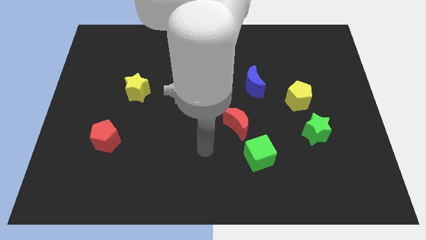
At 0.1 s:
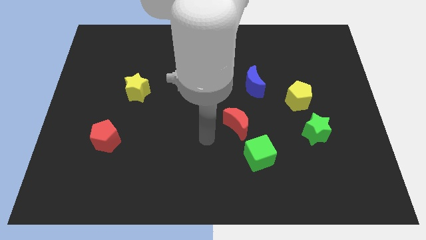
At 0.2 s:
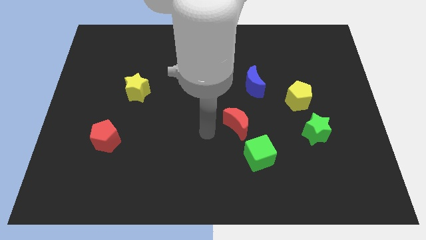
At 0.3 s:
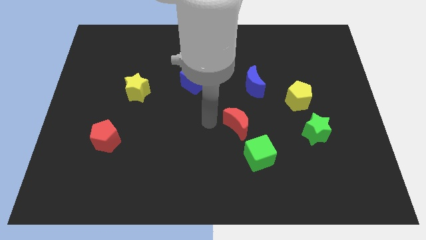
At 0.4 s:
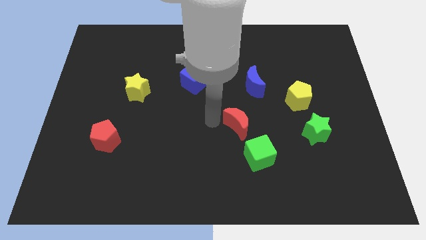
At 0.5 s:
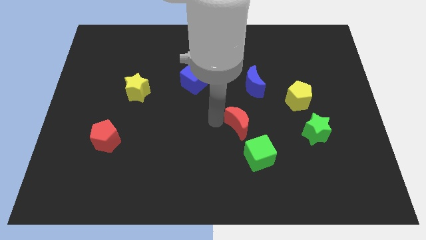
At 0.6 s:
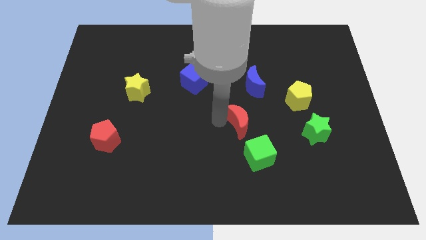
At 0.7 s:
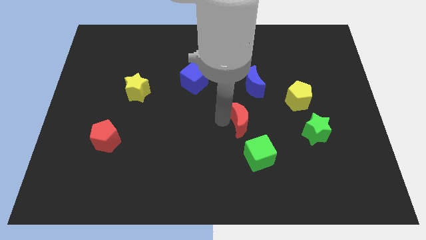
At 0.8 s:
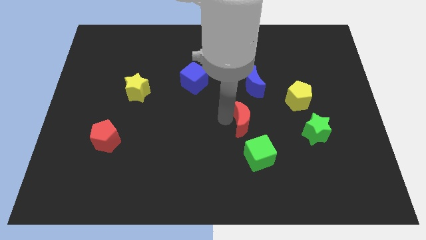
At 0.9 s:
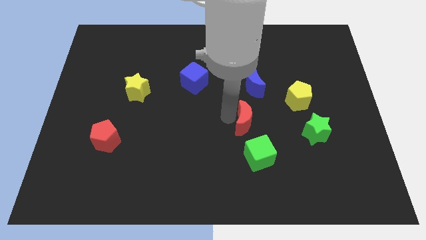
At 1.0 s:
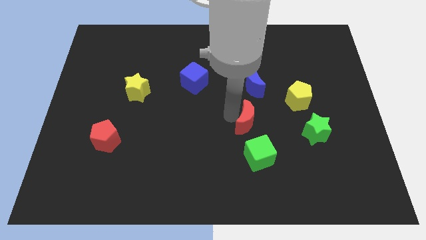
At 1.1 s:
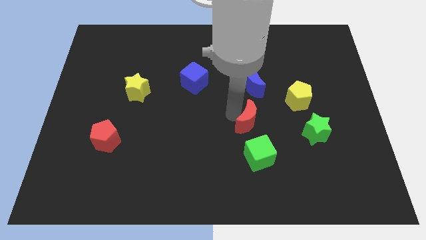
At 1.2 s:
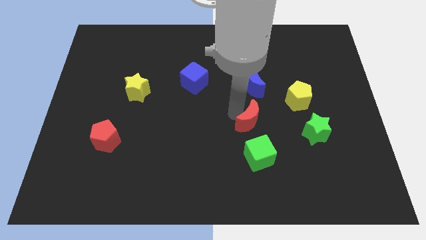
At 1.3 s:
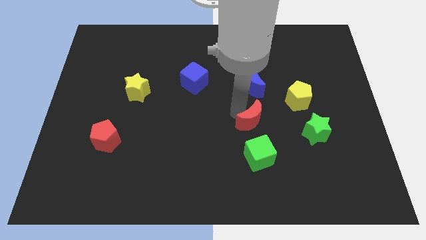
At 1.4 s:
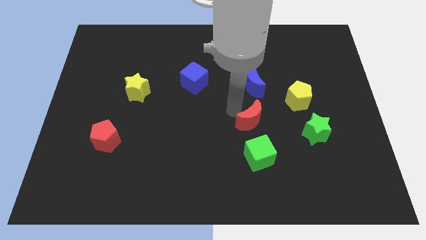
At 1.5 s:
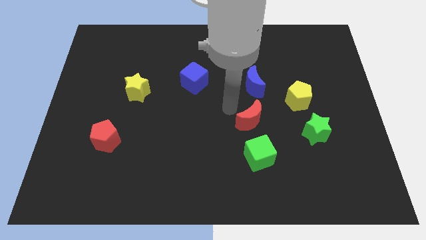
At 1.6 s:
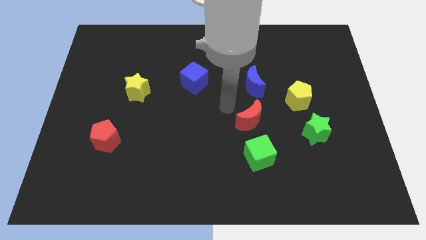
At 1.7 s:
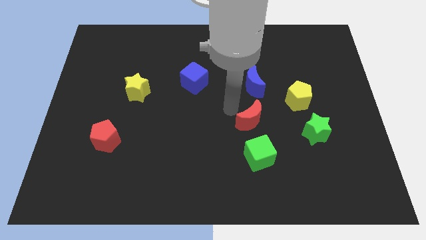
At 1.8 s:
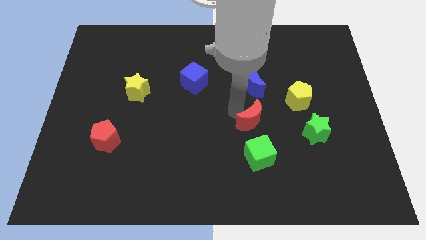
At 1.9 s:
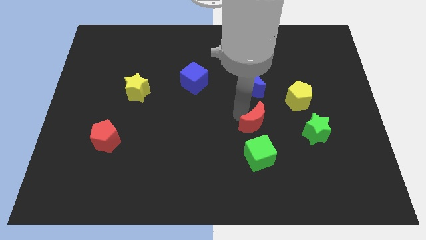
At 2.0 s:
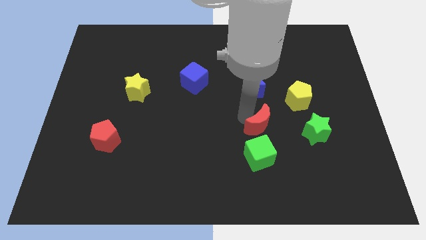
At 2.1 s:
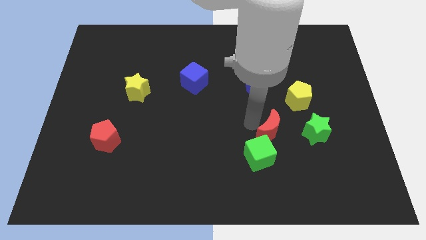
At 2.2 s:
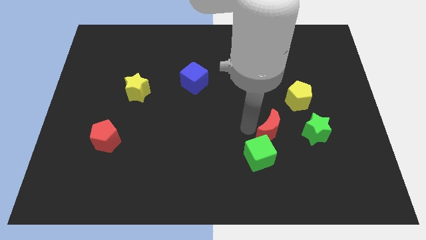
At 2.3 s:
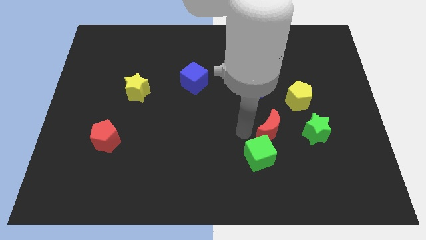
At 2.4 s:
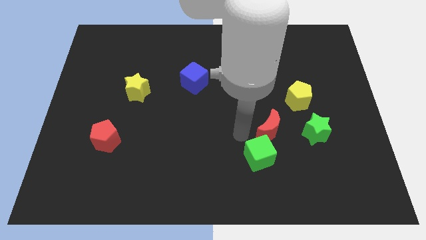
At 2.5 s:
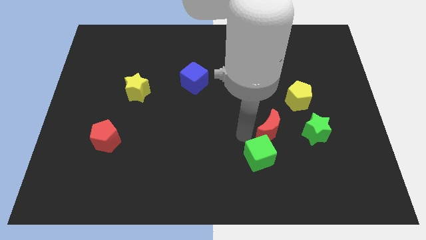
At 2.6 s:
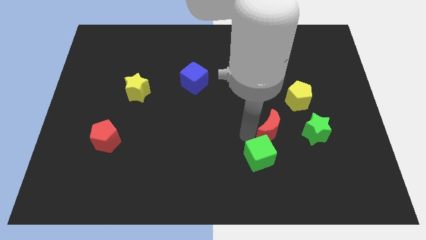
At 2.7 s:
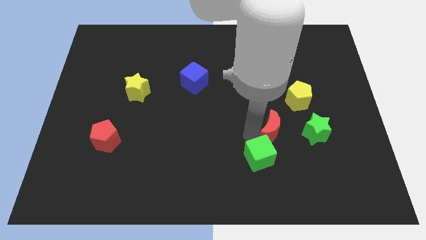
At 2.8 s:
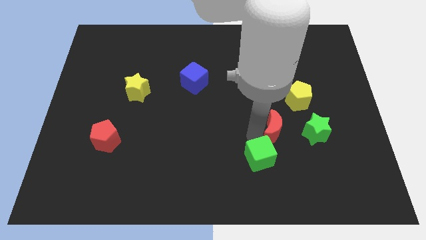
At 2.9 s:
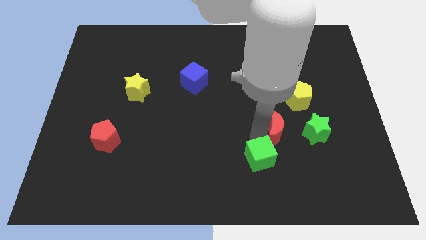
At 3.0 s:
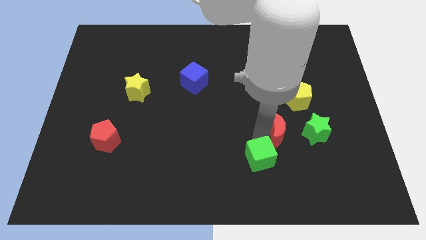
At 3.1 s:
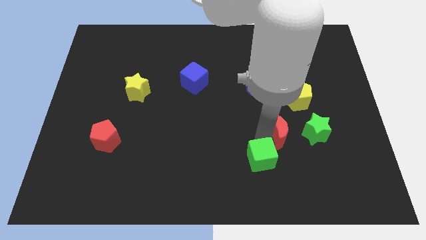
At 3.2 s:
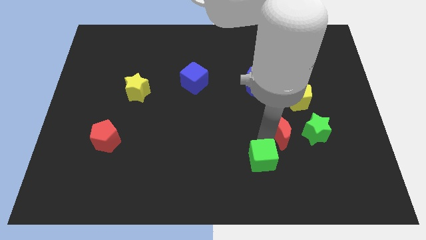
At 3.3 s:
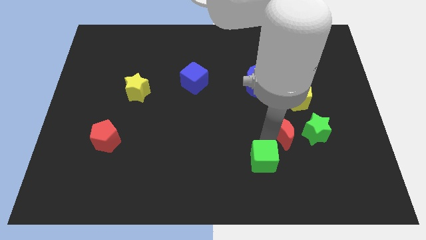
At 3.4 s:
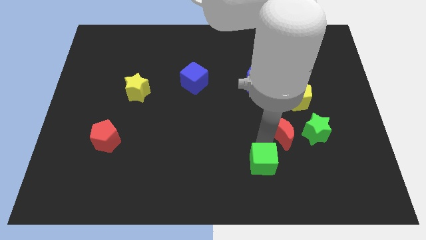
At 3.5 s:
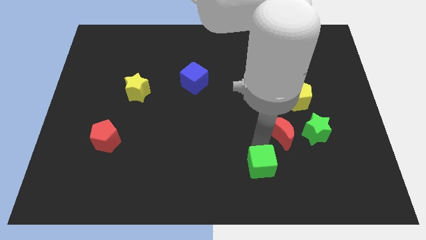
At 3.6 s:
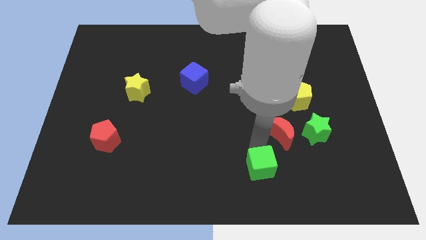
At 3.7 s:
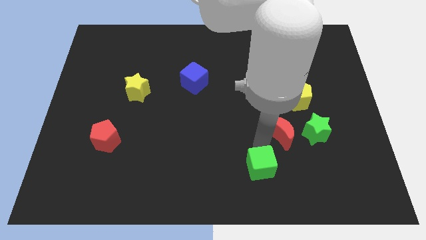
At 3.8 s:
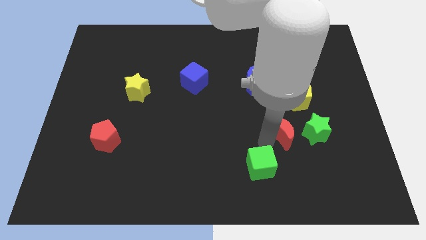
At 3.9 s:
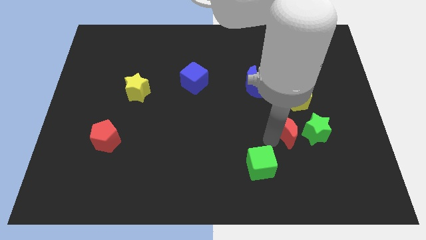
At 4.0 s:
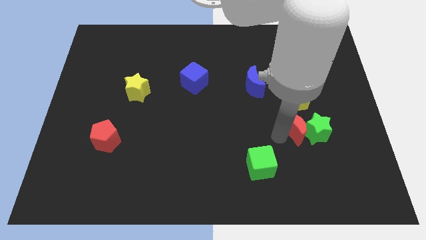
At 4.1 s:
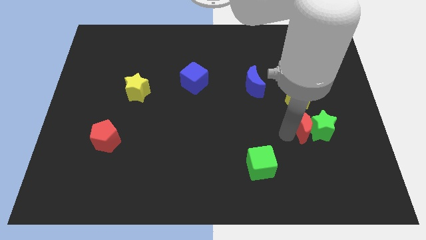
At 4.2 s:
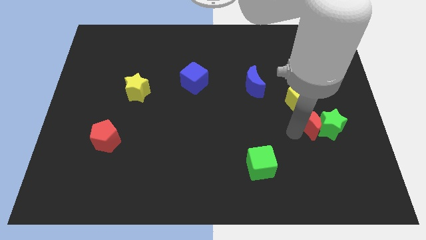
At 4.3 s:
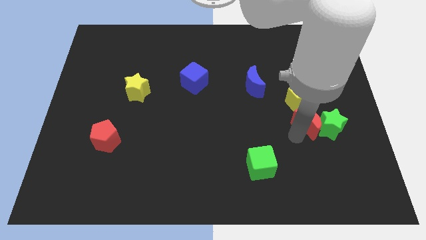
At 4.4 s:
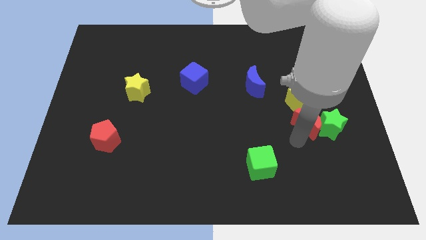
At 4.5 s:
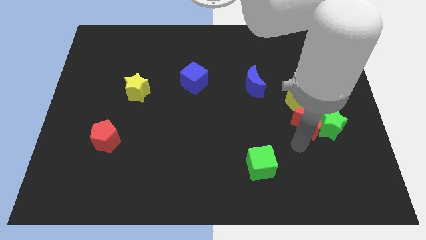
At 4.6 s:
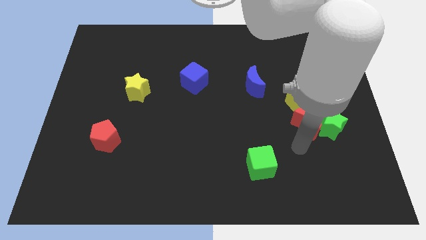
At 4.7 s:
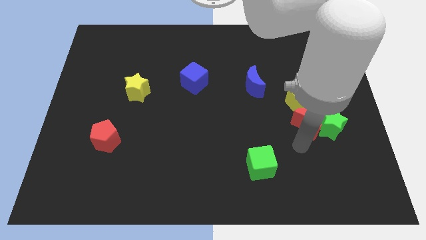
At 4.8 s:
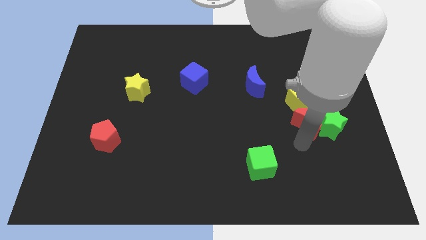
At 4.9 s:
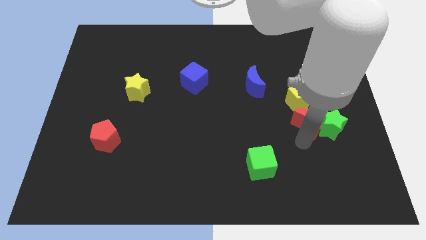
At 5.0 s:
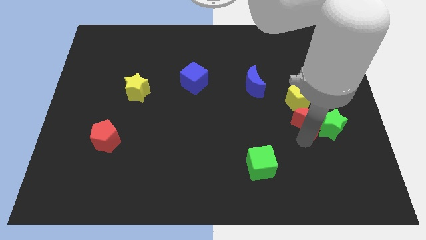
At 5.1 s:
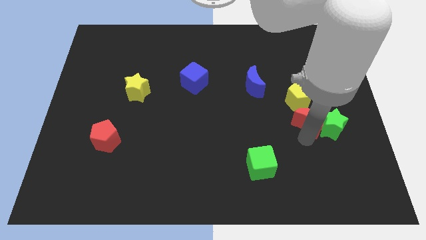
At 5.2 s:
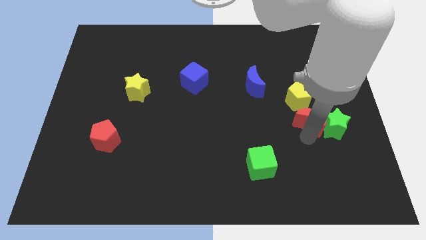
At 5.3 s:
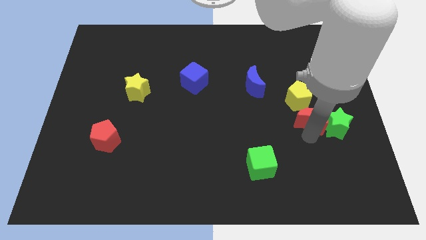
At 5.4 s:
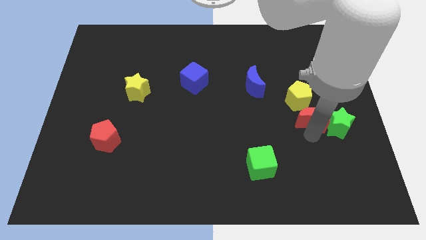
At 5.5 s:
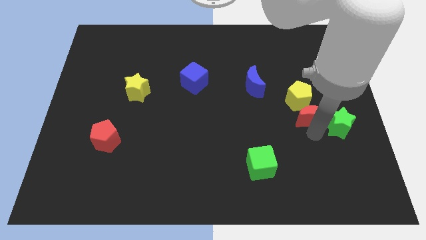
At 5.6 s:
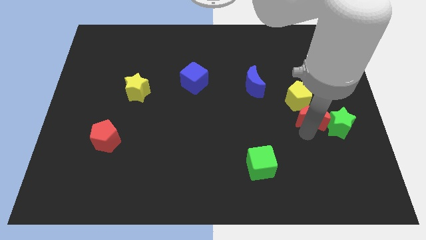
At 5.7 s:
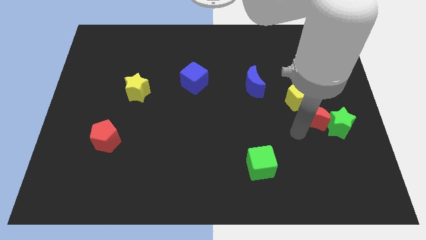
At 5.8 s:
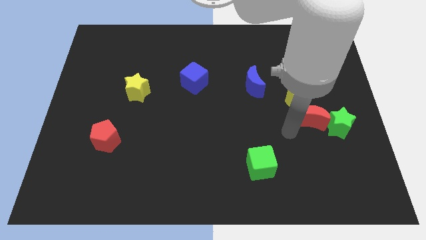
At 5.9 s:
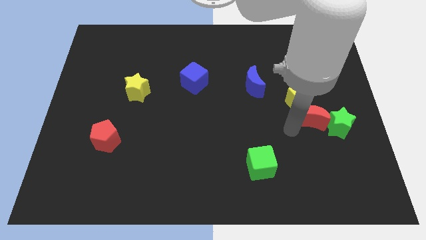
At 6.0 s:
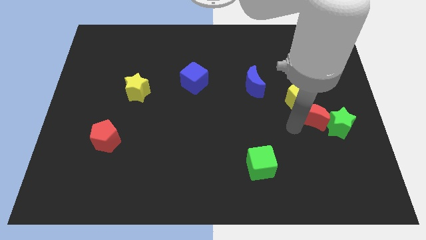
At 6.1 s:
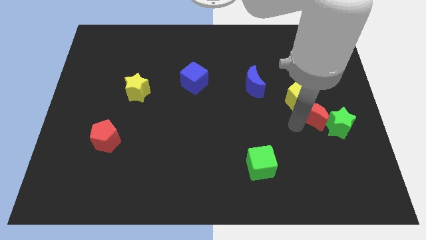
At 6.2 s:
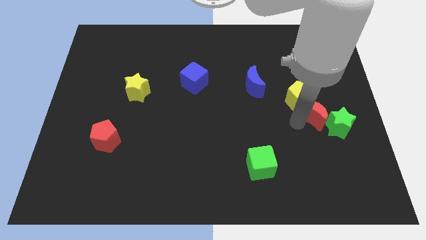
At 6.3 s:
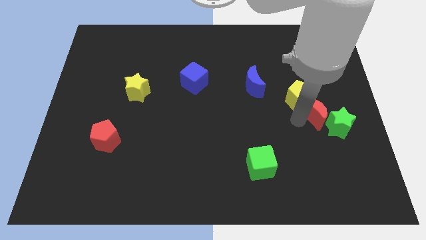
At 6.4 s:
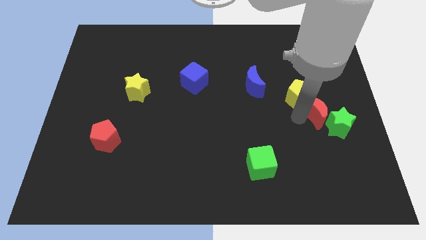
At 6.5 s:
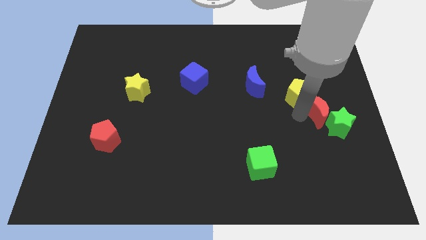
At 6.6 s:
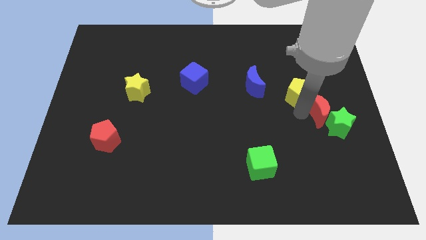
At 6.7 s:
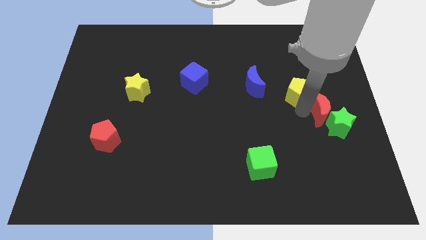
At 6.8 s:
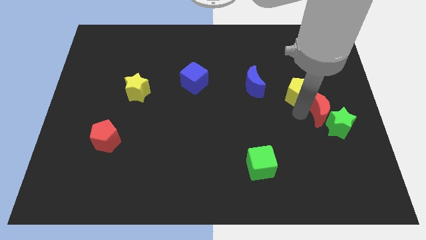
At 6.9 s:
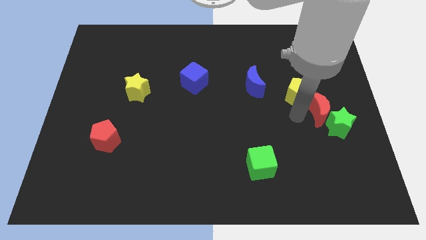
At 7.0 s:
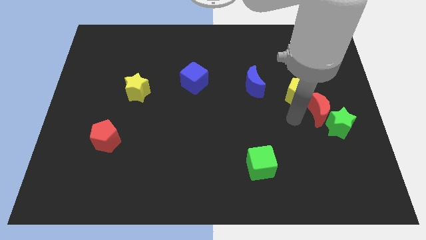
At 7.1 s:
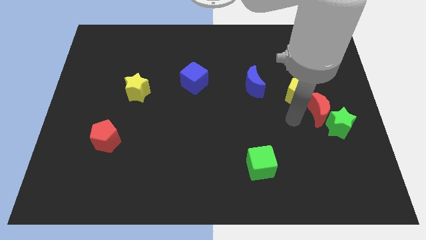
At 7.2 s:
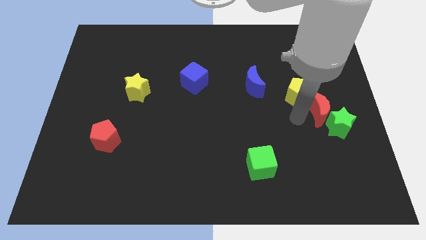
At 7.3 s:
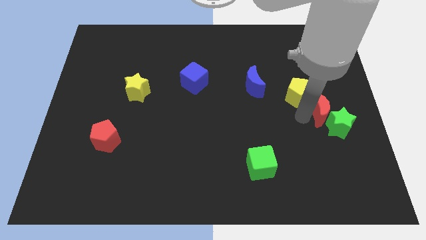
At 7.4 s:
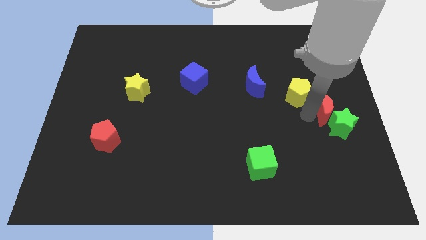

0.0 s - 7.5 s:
move the red moon to the right side
